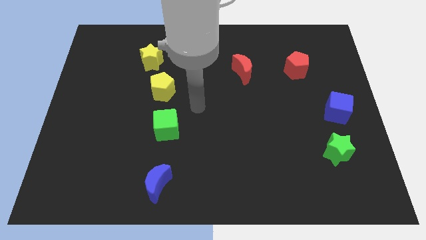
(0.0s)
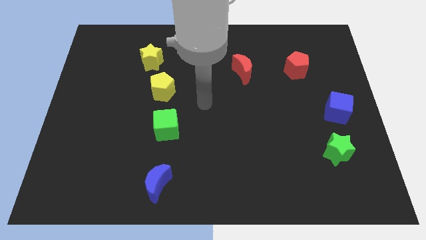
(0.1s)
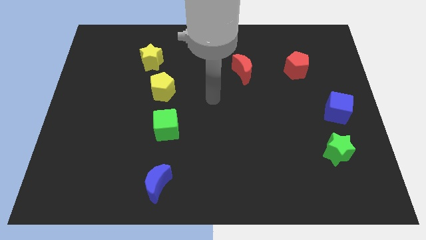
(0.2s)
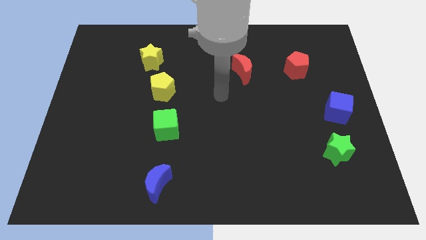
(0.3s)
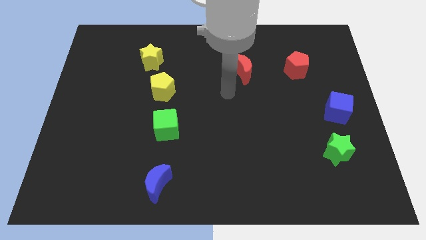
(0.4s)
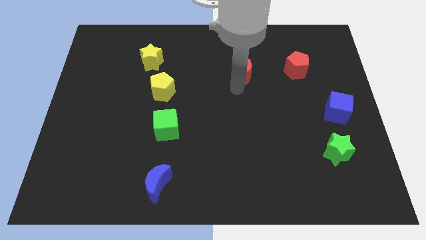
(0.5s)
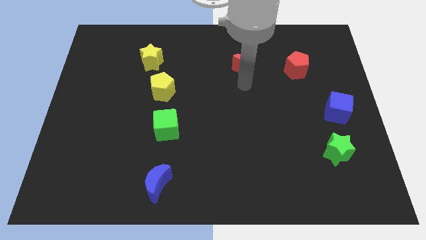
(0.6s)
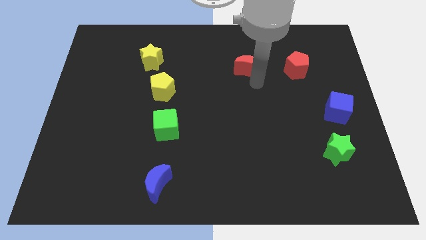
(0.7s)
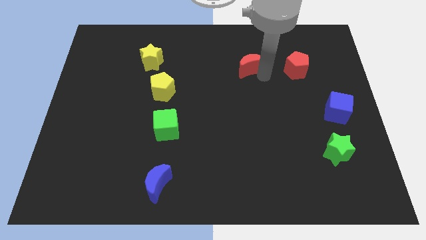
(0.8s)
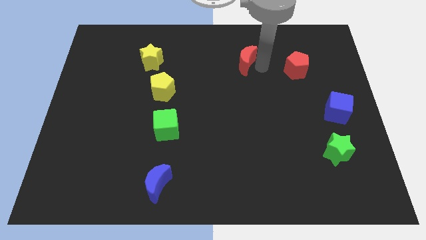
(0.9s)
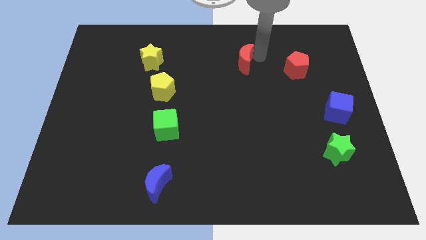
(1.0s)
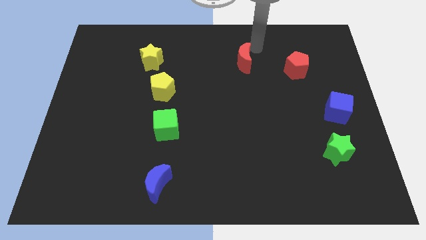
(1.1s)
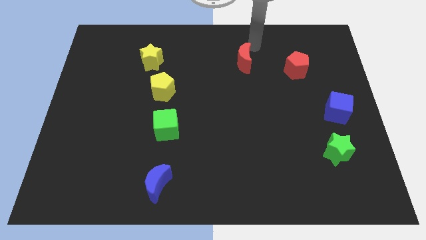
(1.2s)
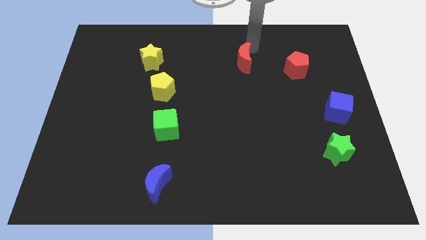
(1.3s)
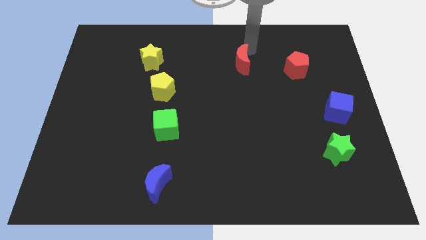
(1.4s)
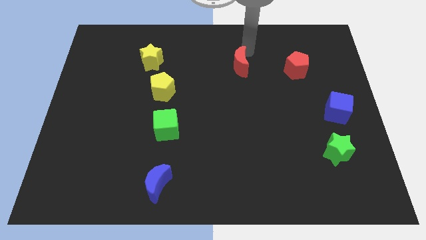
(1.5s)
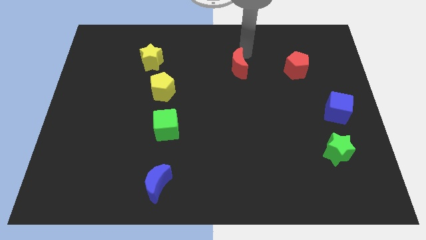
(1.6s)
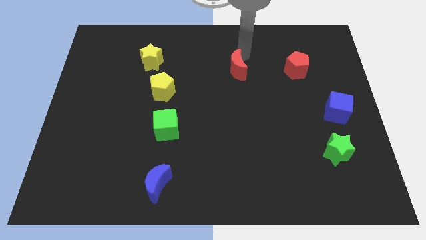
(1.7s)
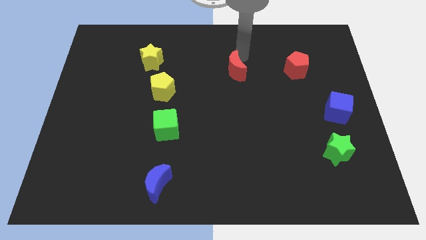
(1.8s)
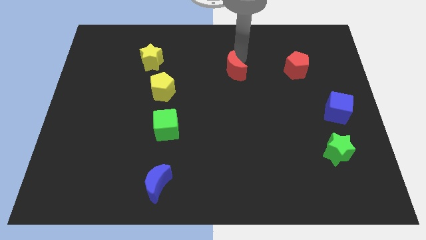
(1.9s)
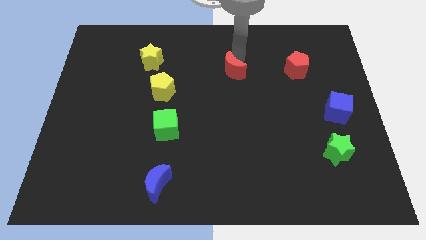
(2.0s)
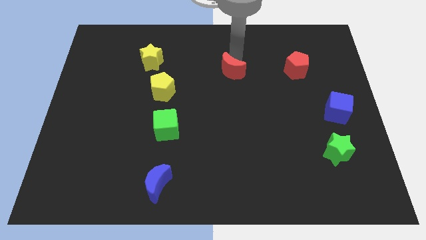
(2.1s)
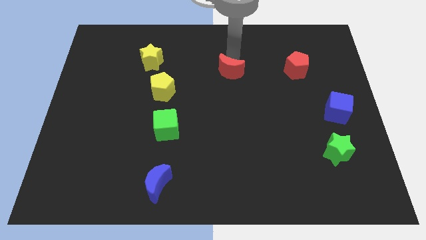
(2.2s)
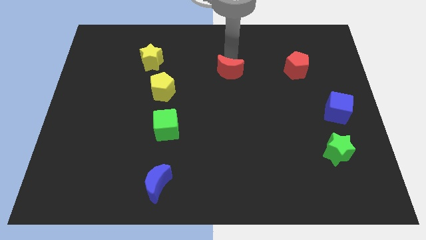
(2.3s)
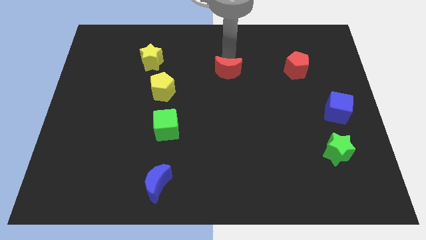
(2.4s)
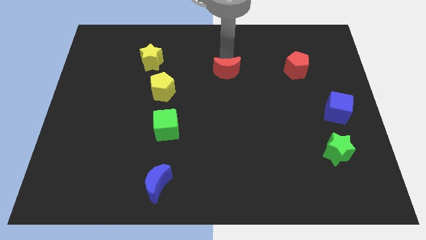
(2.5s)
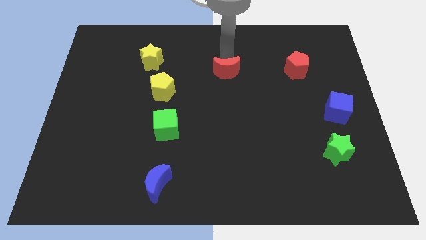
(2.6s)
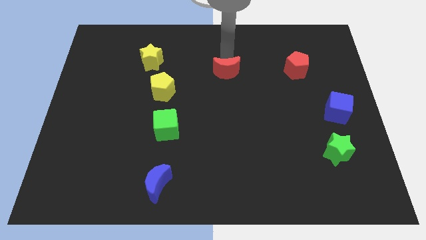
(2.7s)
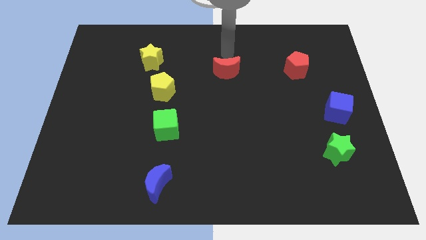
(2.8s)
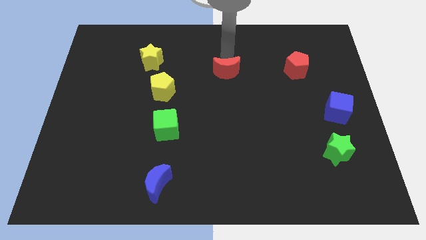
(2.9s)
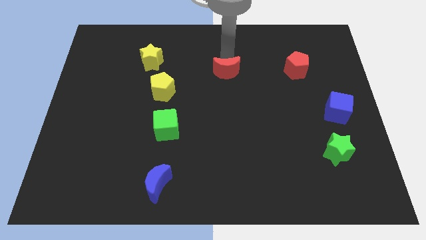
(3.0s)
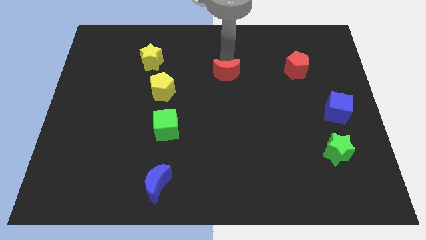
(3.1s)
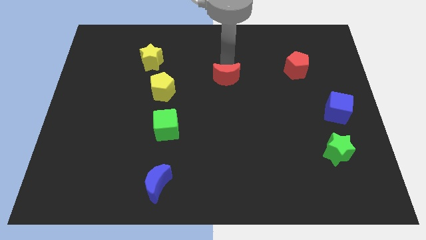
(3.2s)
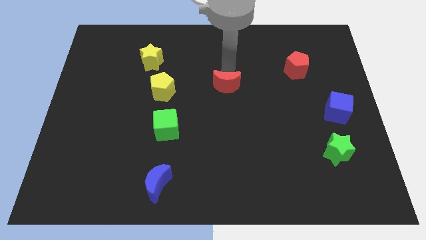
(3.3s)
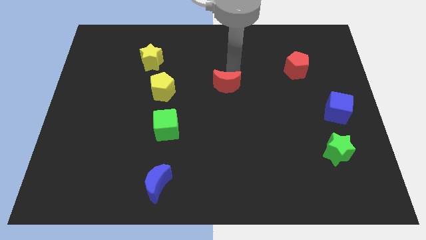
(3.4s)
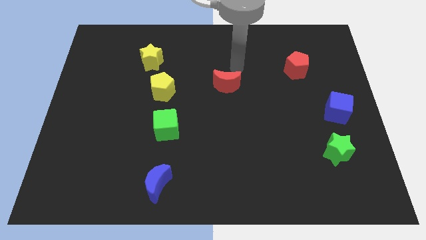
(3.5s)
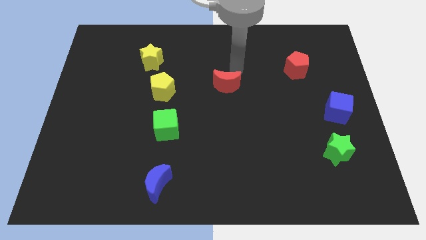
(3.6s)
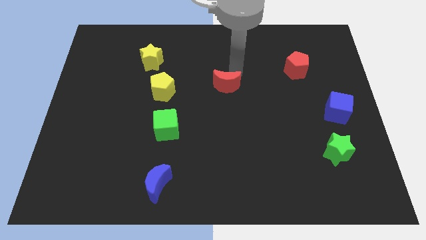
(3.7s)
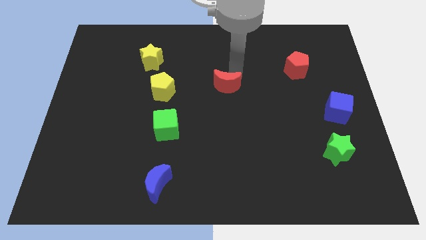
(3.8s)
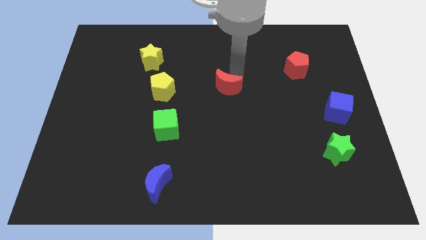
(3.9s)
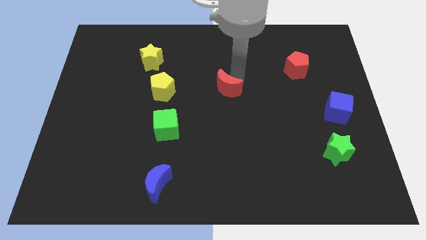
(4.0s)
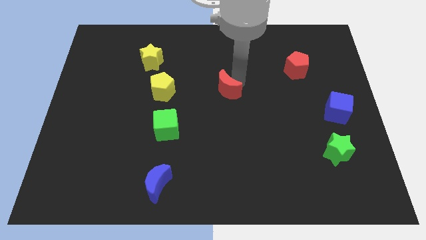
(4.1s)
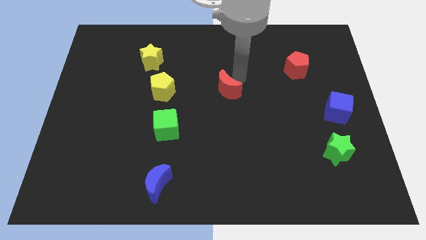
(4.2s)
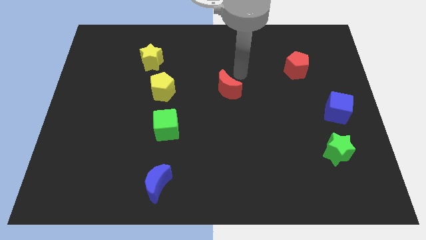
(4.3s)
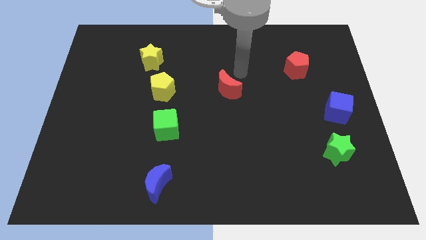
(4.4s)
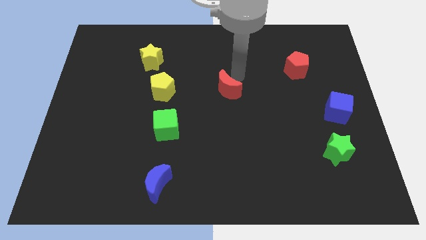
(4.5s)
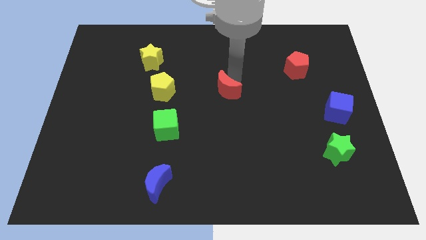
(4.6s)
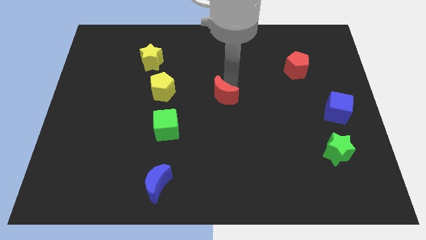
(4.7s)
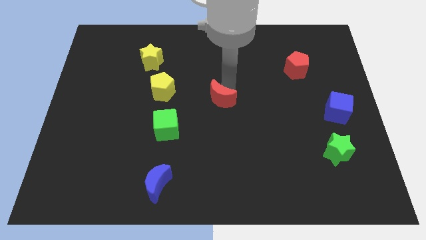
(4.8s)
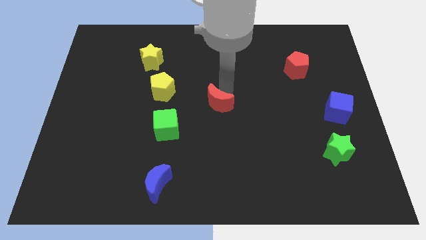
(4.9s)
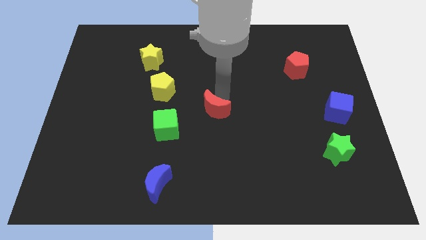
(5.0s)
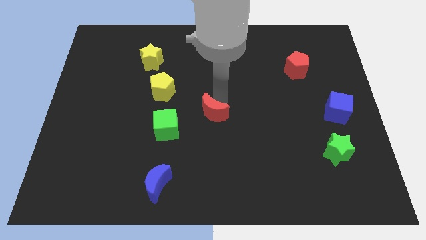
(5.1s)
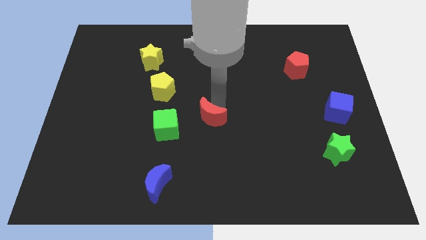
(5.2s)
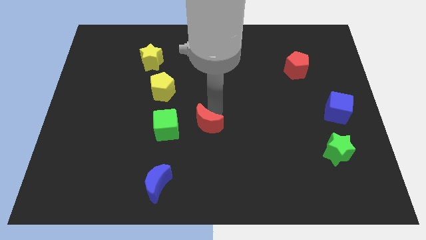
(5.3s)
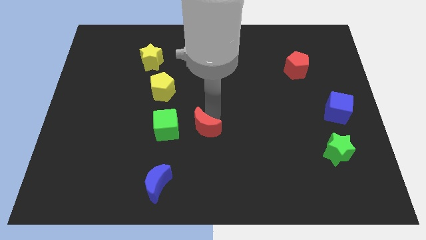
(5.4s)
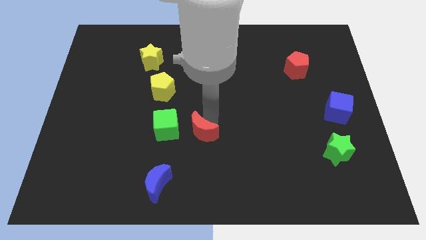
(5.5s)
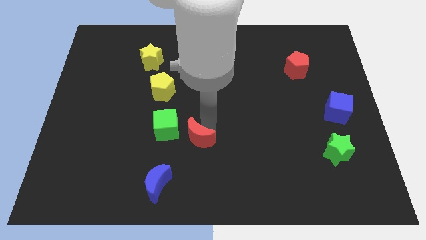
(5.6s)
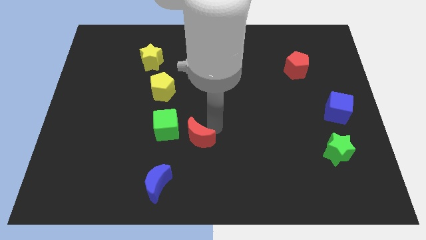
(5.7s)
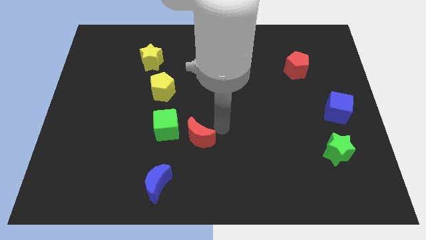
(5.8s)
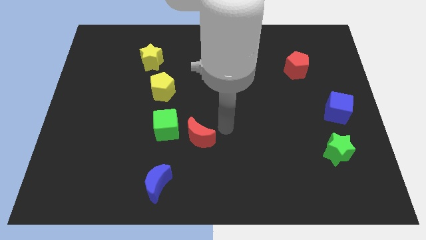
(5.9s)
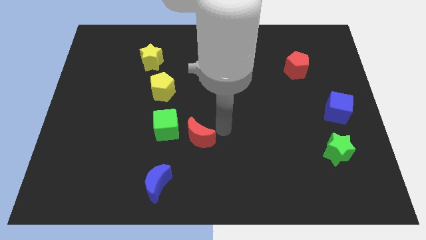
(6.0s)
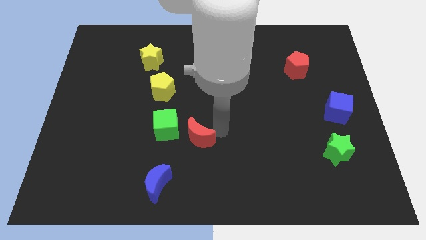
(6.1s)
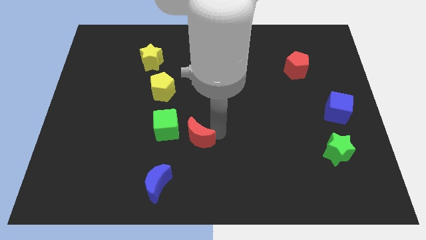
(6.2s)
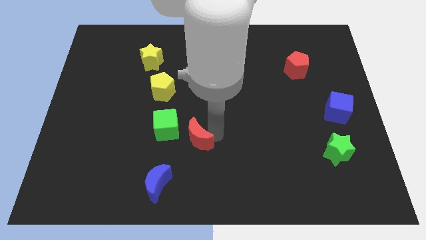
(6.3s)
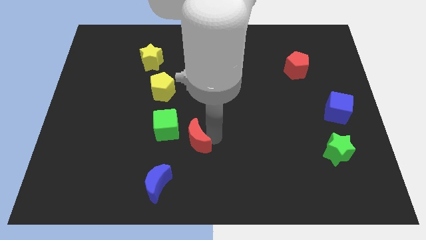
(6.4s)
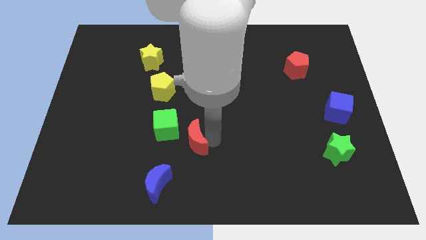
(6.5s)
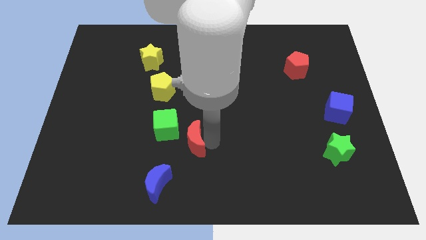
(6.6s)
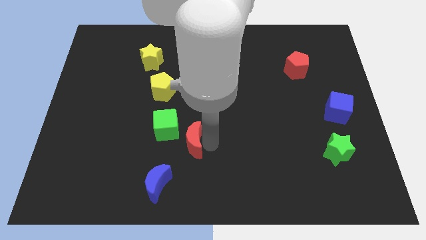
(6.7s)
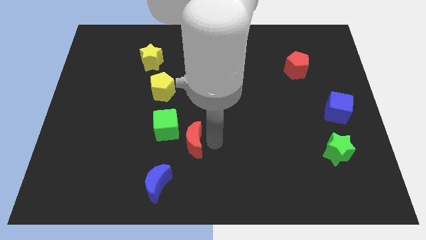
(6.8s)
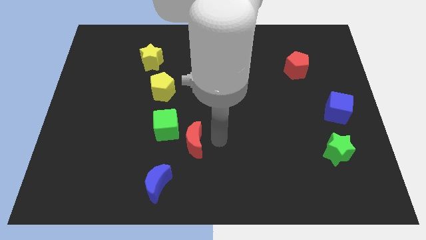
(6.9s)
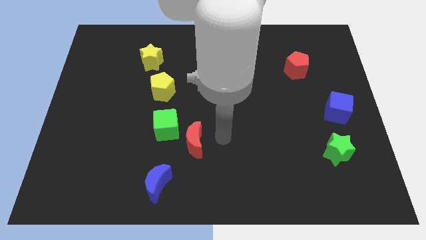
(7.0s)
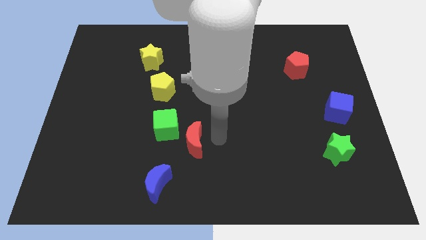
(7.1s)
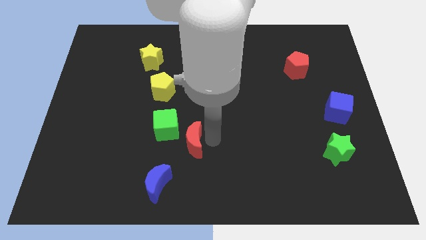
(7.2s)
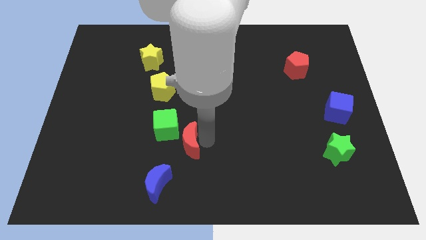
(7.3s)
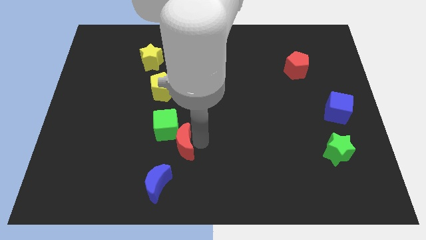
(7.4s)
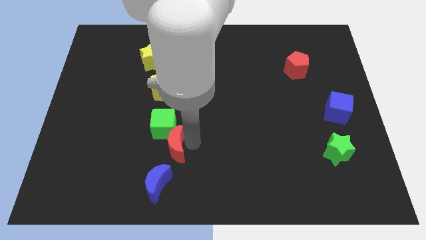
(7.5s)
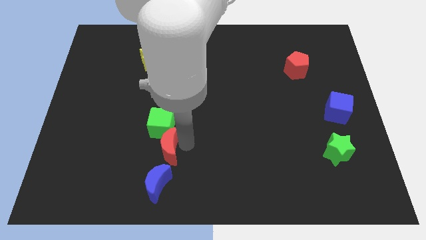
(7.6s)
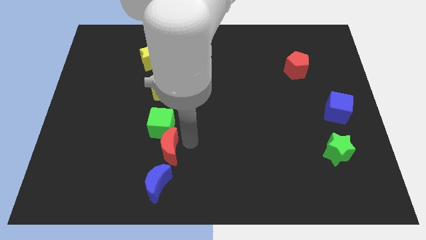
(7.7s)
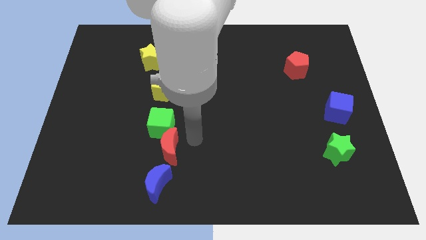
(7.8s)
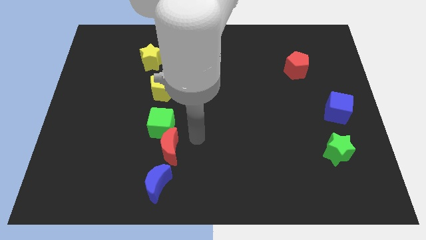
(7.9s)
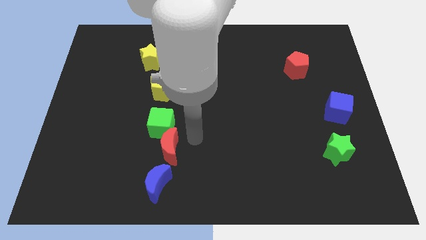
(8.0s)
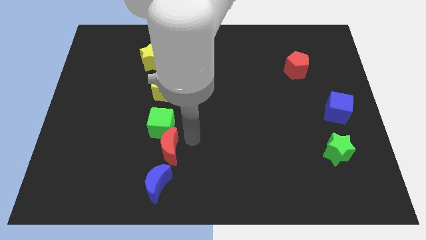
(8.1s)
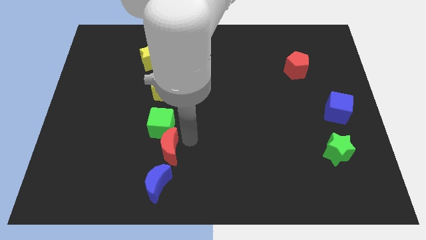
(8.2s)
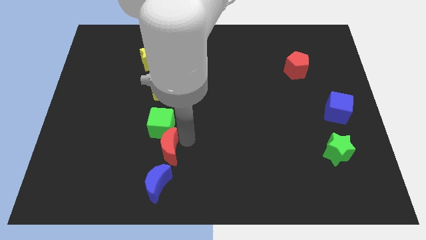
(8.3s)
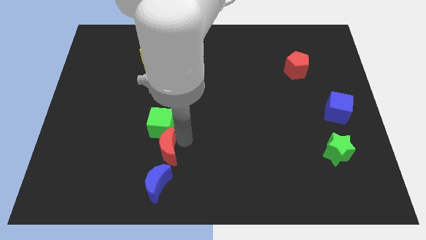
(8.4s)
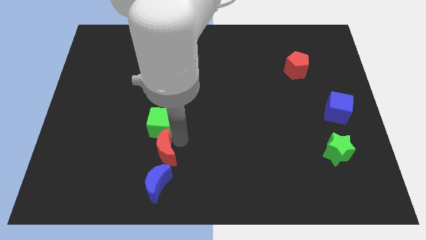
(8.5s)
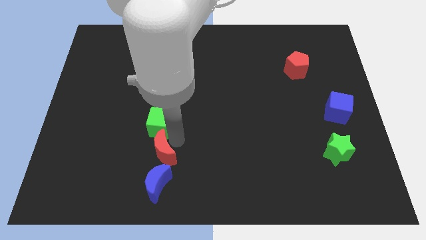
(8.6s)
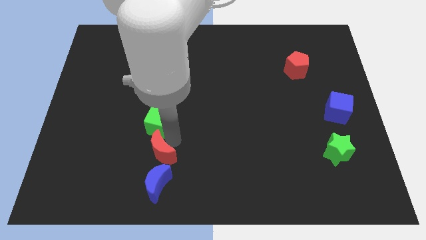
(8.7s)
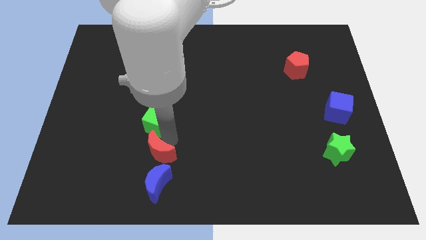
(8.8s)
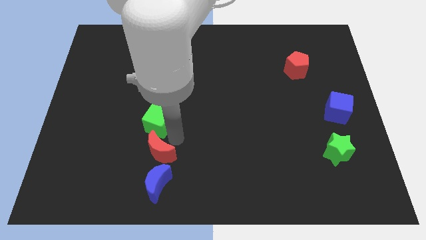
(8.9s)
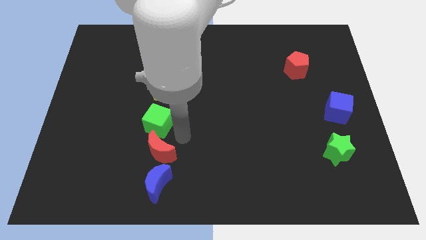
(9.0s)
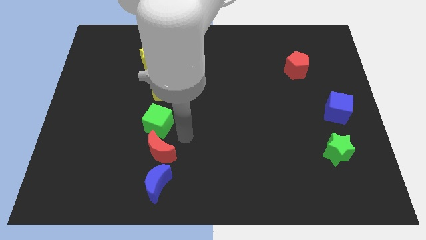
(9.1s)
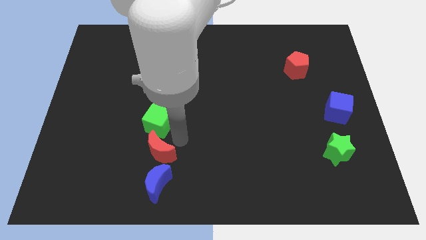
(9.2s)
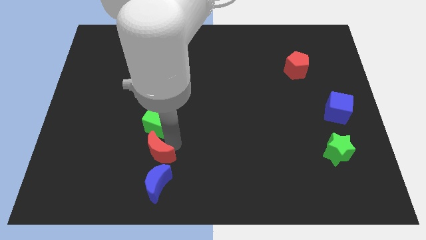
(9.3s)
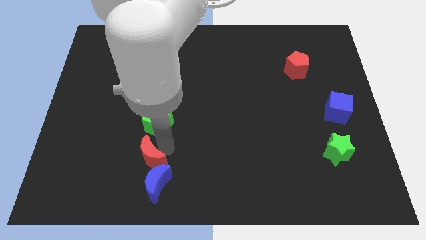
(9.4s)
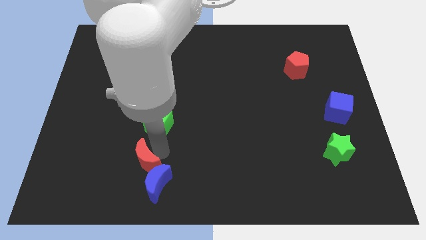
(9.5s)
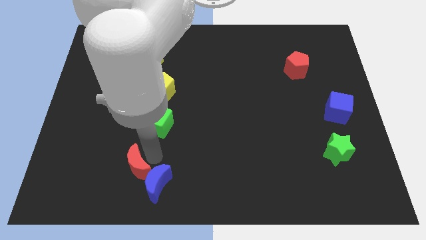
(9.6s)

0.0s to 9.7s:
push the red moon just left of the blue moon
